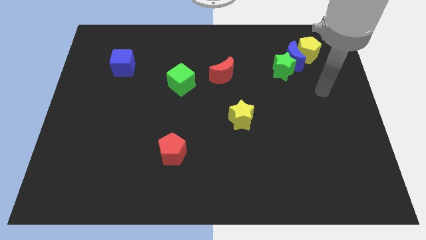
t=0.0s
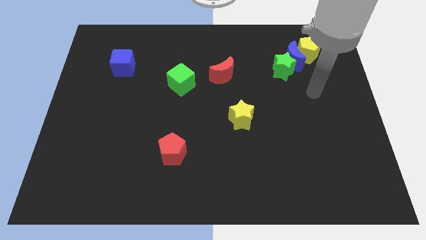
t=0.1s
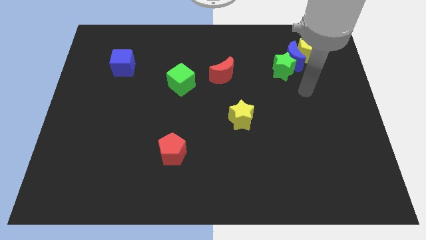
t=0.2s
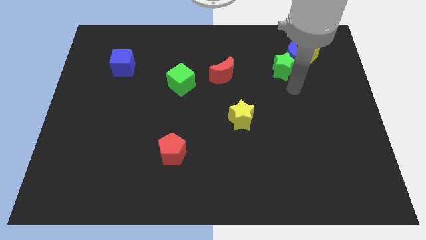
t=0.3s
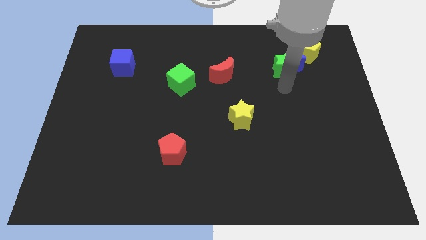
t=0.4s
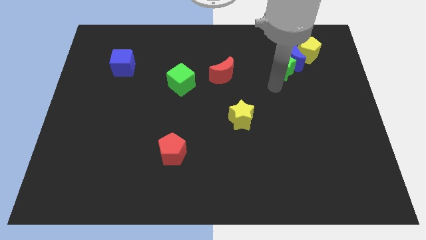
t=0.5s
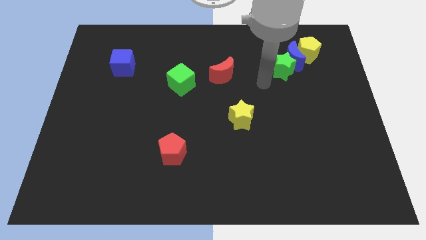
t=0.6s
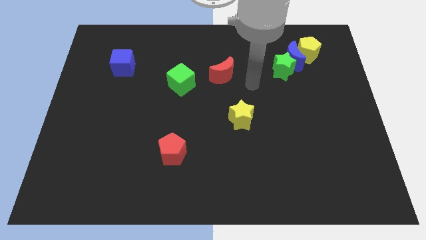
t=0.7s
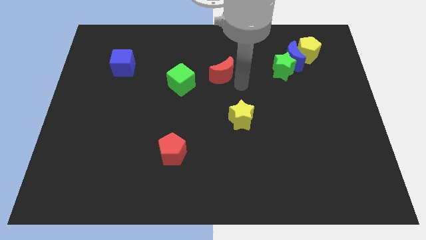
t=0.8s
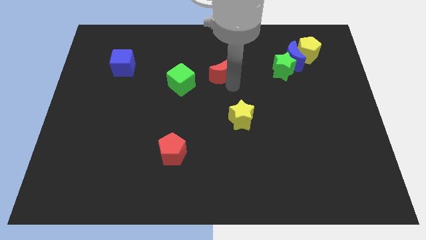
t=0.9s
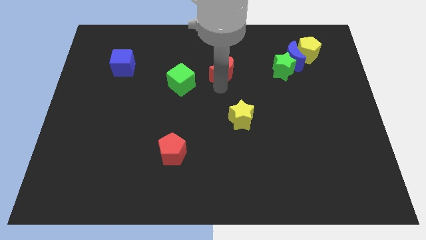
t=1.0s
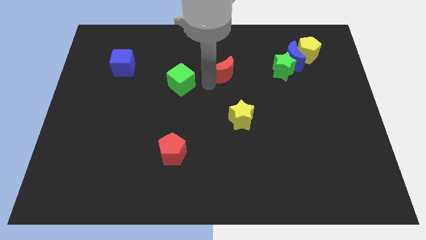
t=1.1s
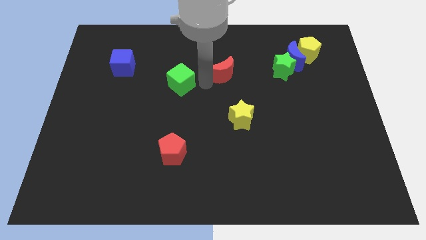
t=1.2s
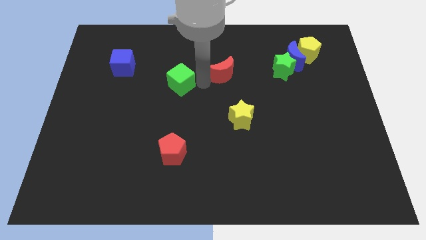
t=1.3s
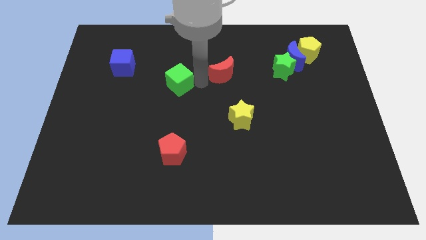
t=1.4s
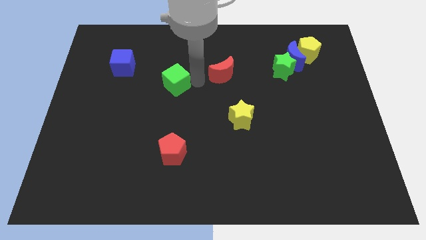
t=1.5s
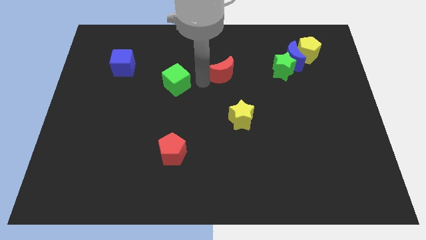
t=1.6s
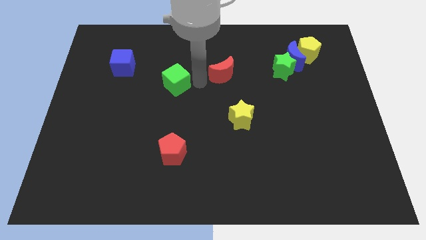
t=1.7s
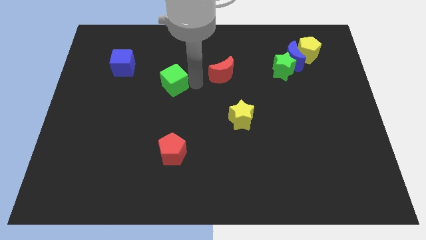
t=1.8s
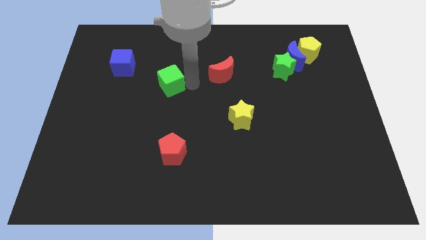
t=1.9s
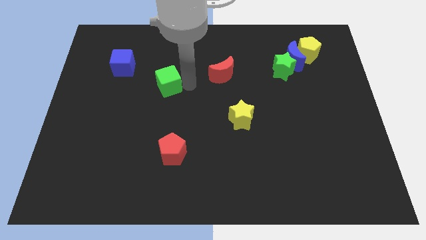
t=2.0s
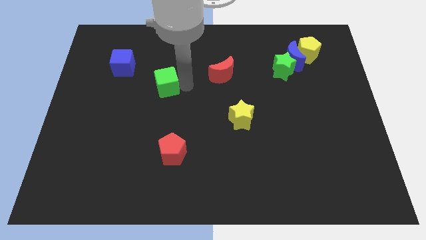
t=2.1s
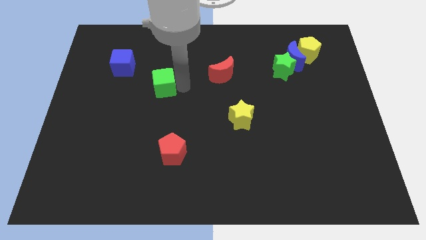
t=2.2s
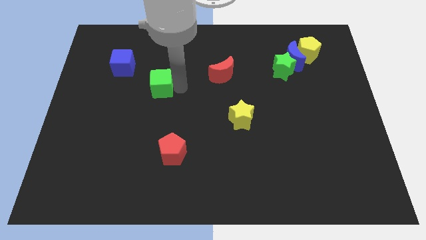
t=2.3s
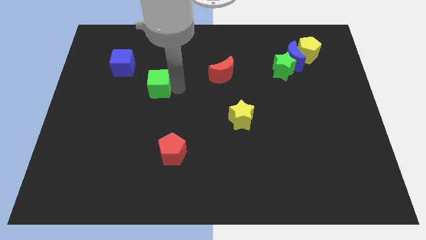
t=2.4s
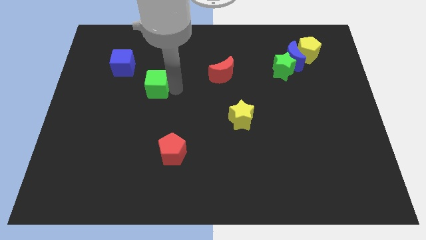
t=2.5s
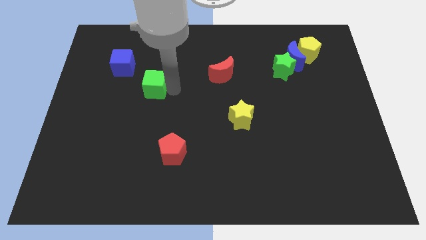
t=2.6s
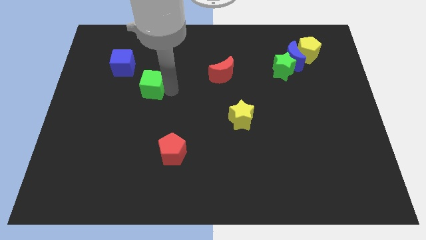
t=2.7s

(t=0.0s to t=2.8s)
slide the green cube left a little

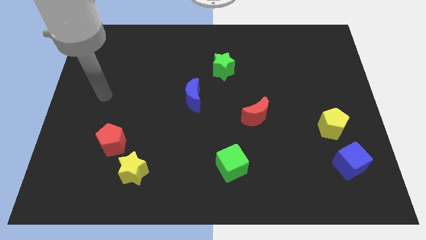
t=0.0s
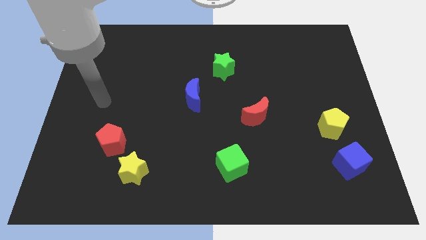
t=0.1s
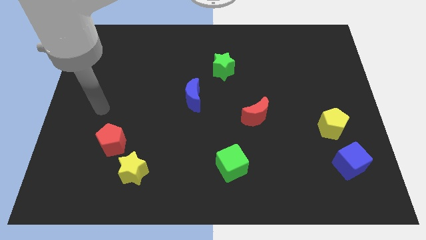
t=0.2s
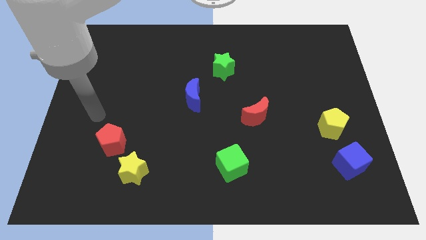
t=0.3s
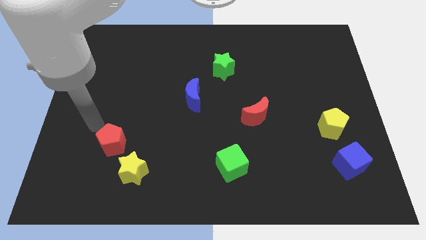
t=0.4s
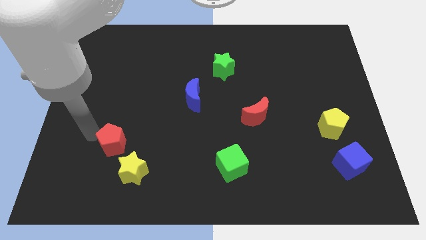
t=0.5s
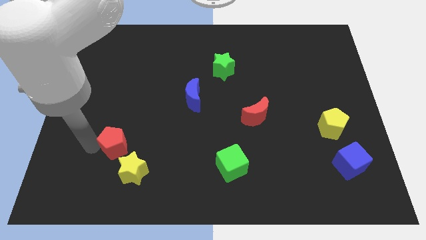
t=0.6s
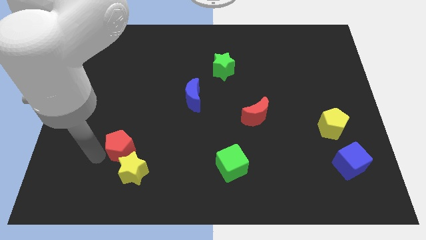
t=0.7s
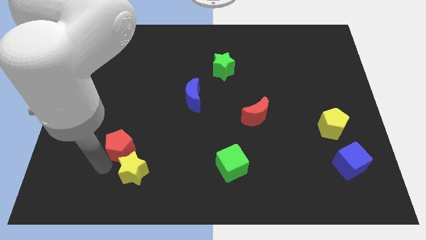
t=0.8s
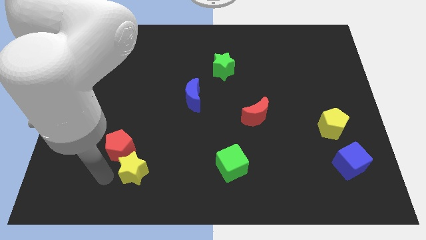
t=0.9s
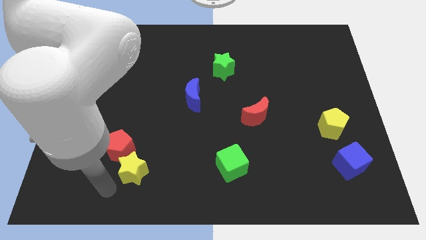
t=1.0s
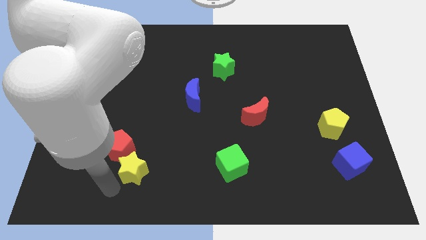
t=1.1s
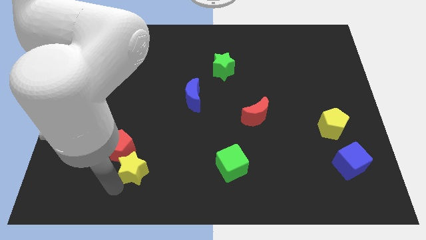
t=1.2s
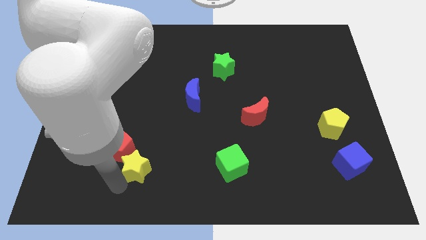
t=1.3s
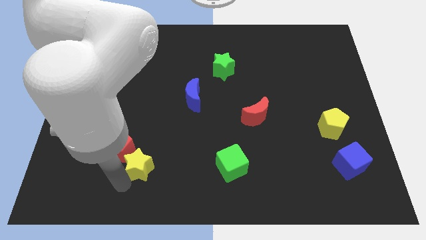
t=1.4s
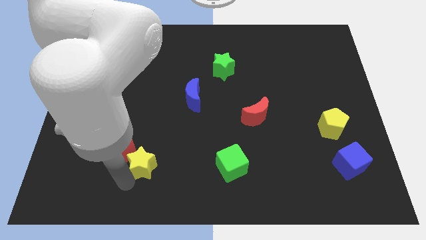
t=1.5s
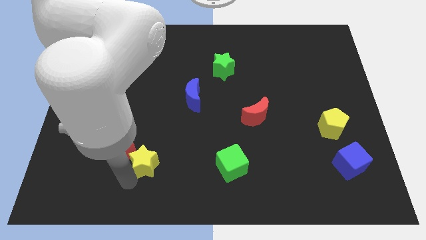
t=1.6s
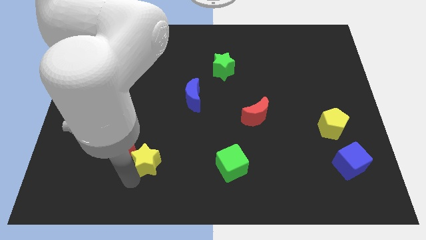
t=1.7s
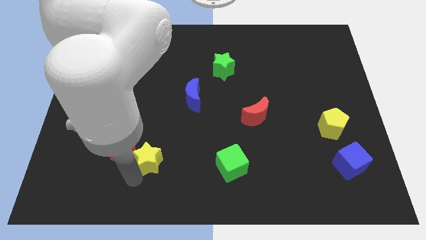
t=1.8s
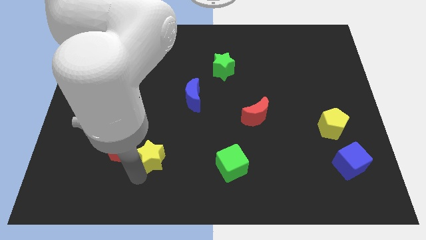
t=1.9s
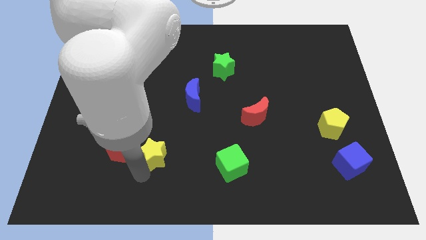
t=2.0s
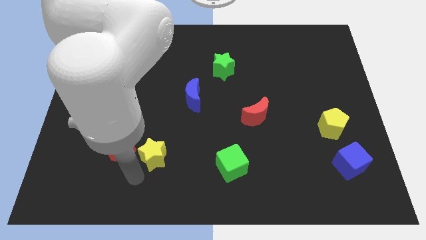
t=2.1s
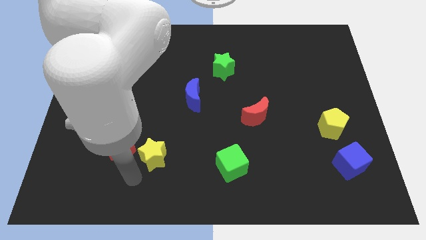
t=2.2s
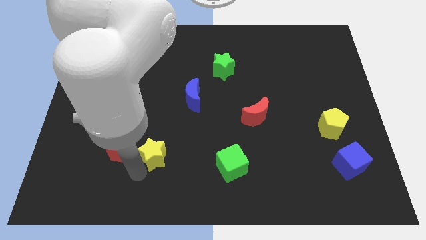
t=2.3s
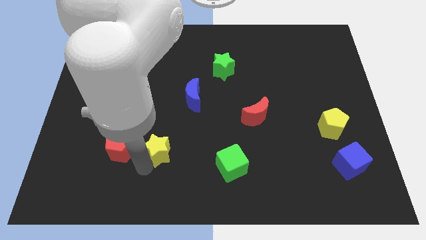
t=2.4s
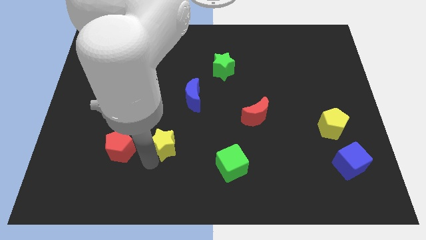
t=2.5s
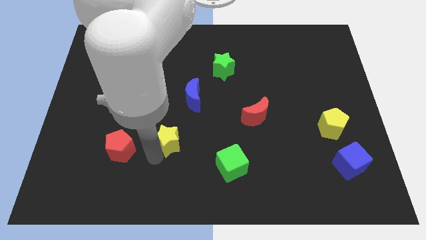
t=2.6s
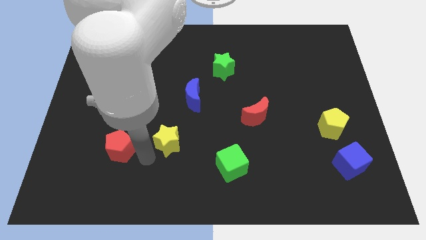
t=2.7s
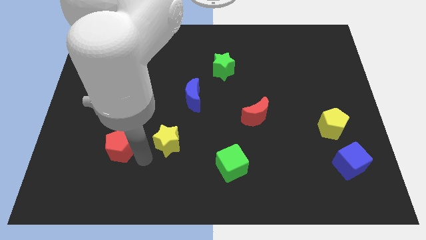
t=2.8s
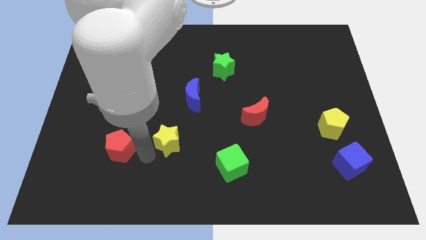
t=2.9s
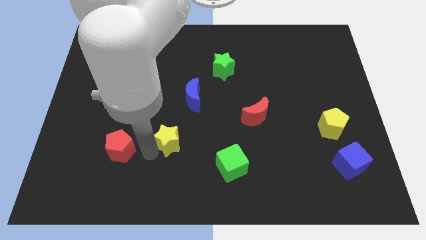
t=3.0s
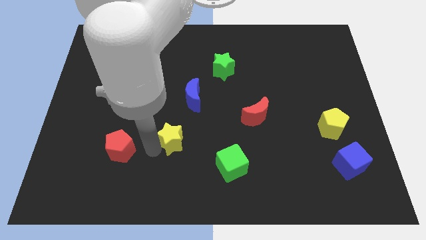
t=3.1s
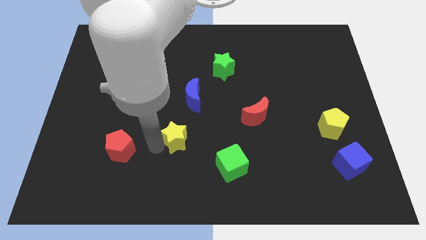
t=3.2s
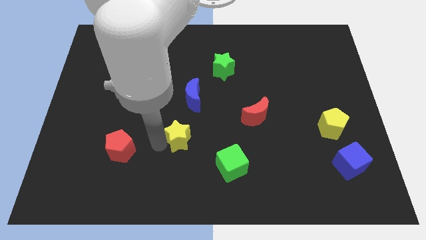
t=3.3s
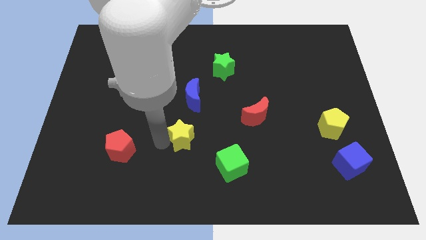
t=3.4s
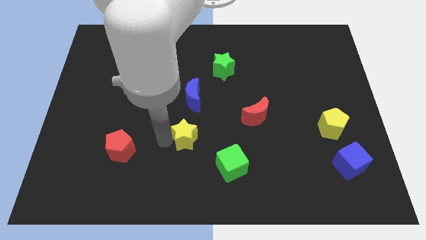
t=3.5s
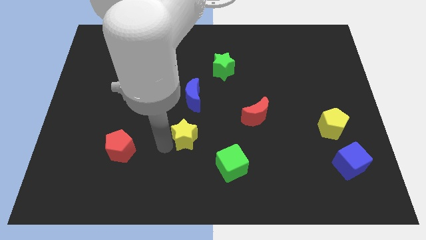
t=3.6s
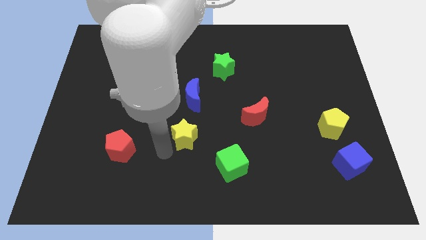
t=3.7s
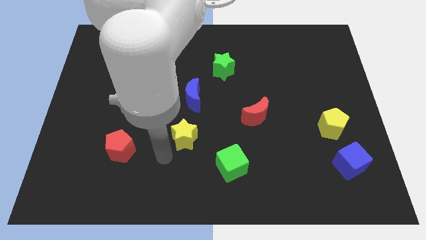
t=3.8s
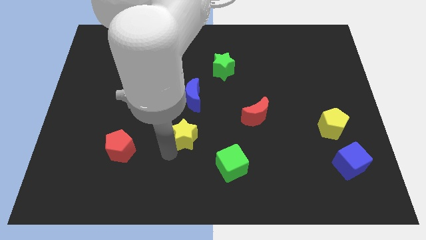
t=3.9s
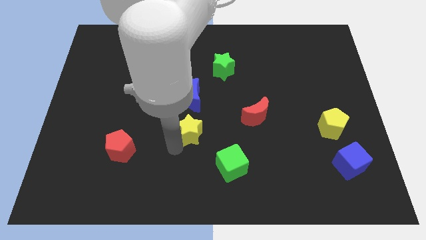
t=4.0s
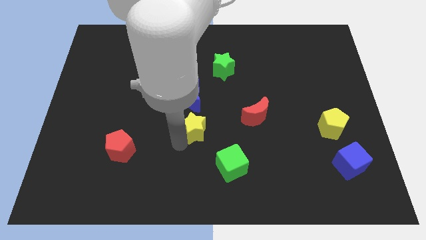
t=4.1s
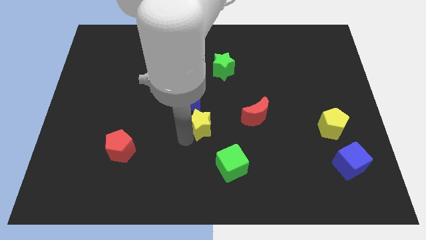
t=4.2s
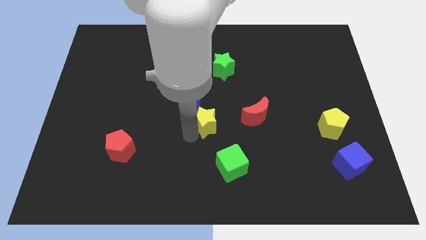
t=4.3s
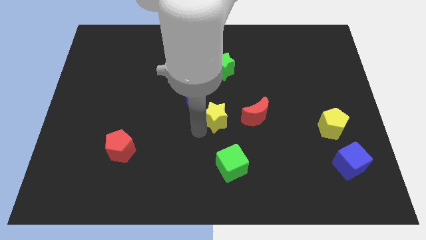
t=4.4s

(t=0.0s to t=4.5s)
push the yellow star diagonally up and right

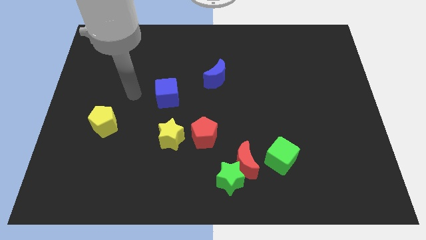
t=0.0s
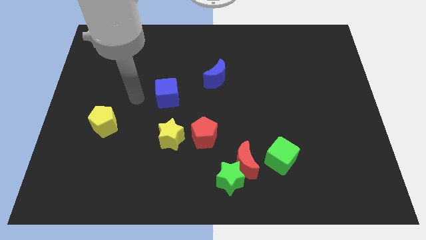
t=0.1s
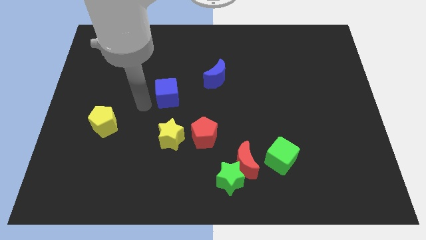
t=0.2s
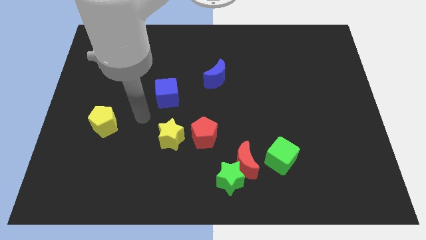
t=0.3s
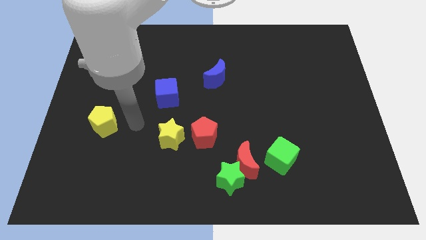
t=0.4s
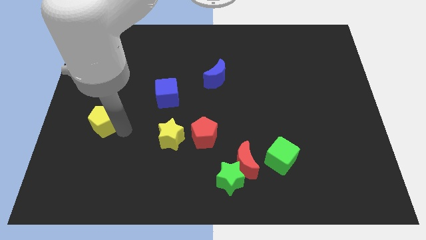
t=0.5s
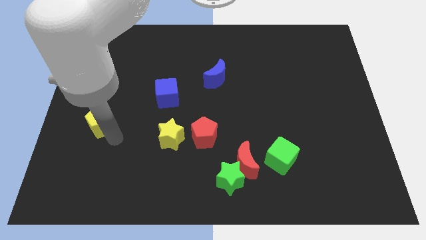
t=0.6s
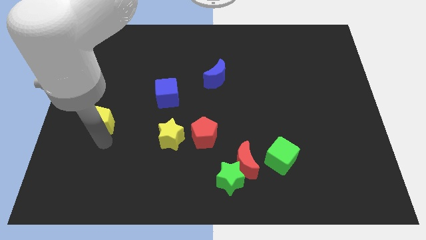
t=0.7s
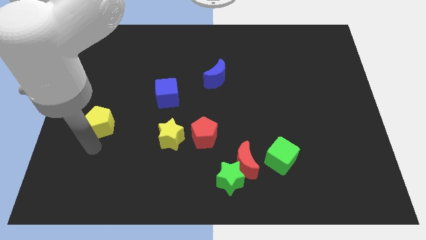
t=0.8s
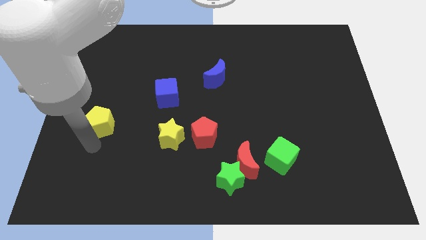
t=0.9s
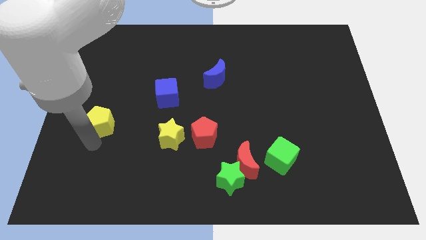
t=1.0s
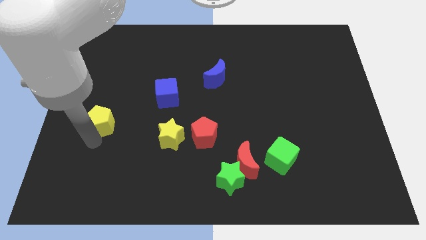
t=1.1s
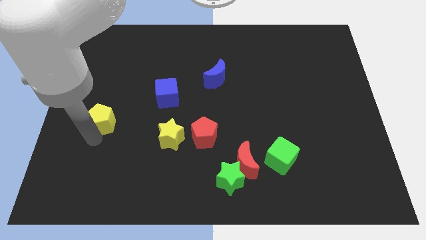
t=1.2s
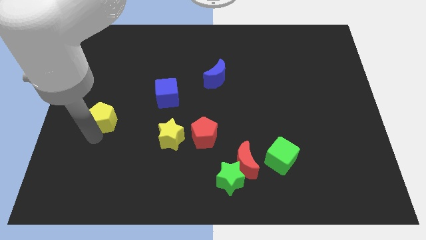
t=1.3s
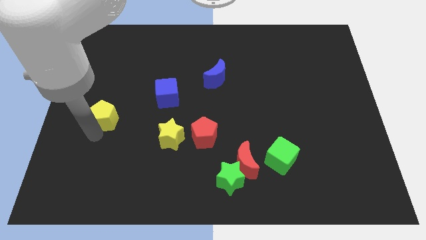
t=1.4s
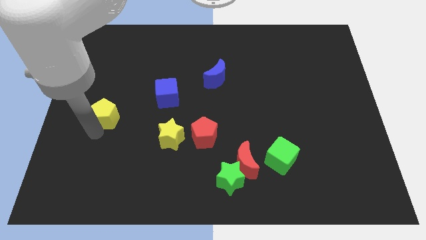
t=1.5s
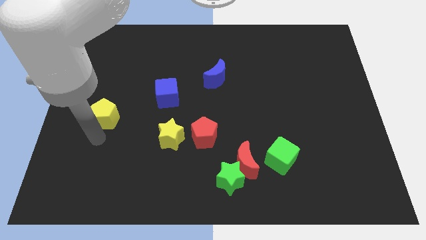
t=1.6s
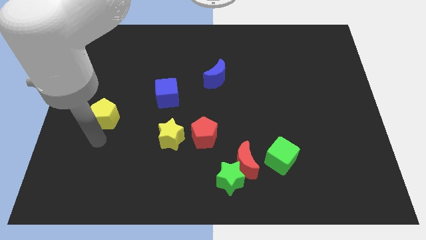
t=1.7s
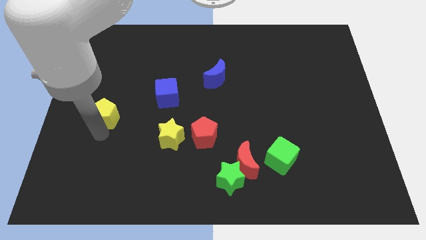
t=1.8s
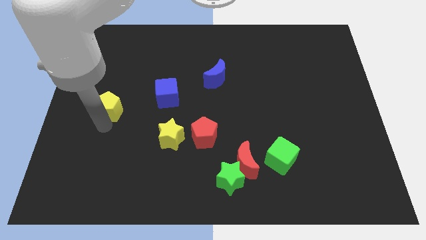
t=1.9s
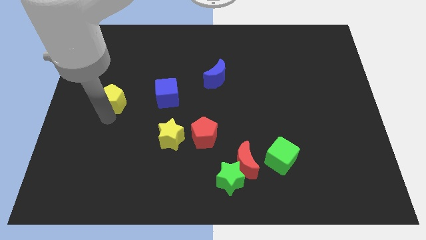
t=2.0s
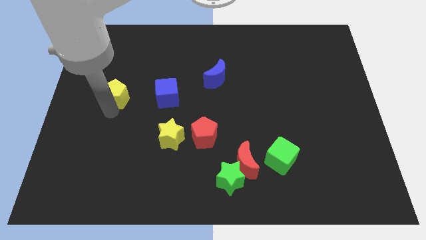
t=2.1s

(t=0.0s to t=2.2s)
push the yellow pentagon a little bit upwards
